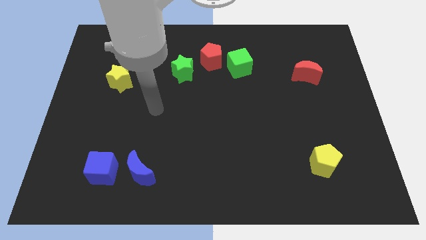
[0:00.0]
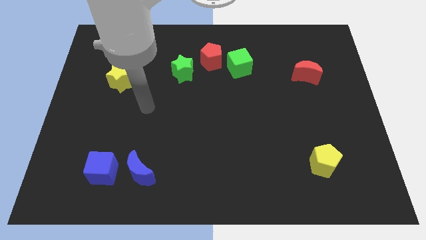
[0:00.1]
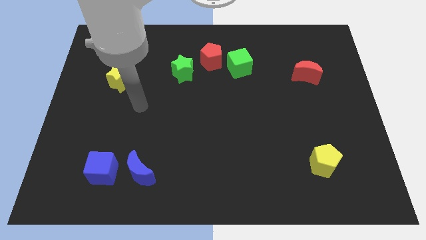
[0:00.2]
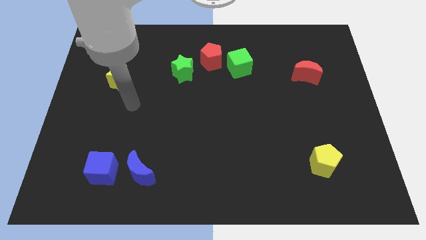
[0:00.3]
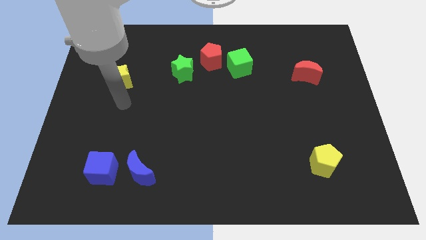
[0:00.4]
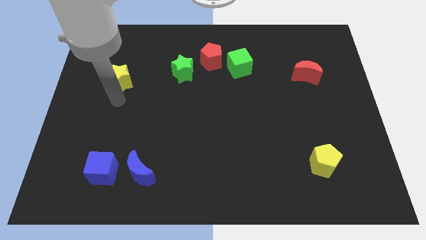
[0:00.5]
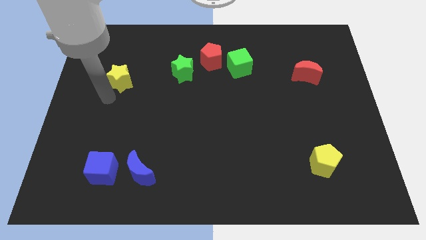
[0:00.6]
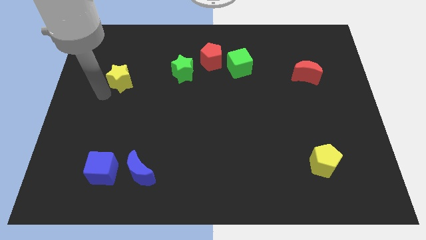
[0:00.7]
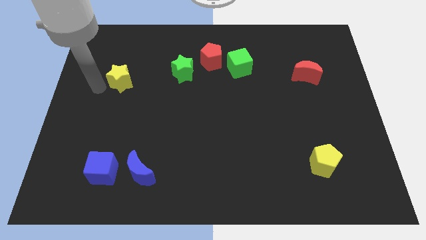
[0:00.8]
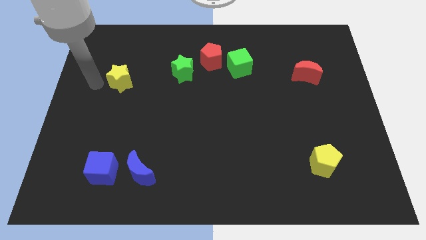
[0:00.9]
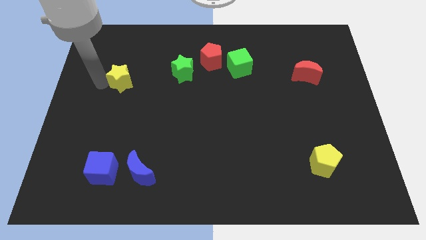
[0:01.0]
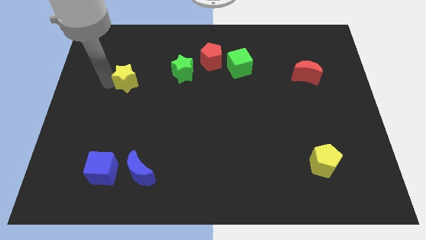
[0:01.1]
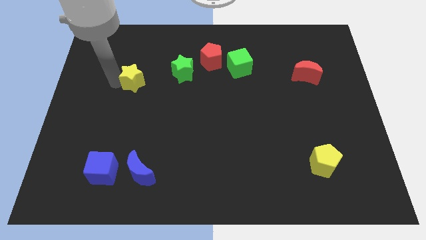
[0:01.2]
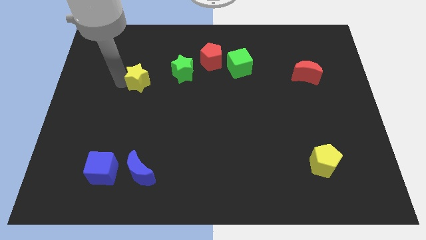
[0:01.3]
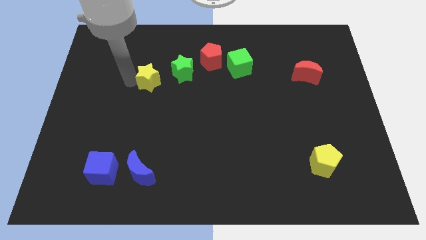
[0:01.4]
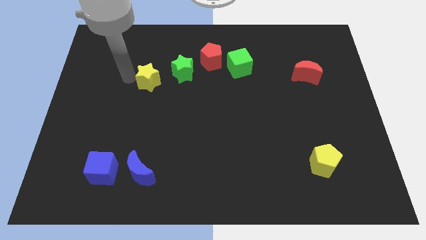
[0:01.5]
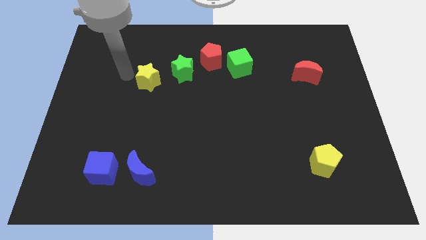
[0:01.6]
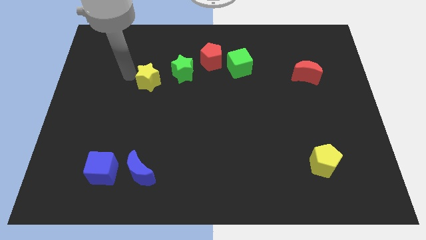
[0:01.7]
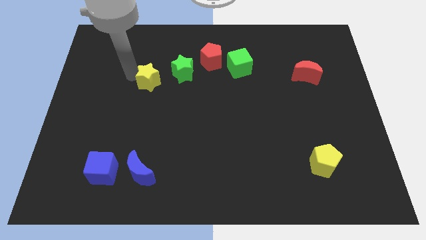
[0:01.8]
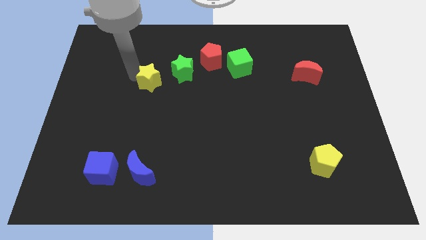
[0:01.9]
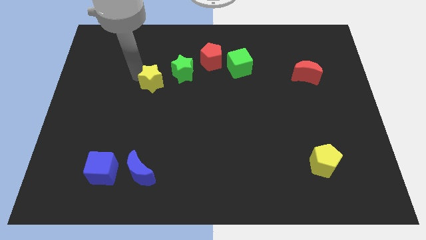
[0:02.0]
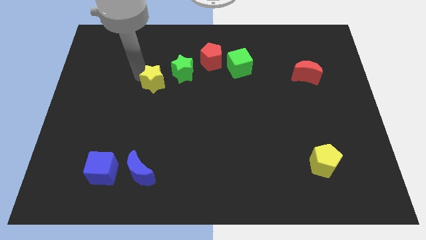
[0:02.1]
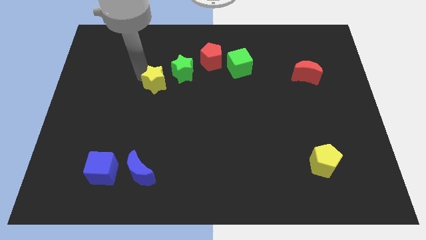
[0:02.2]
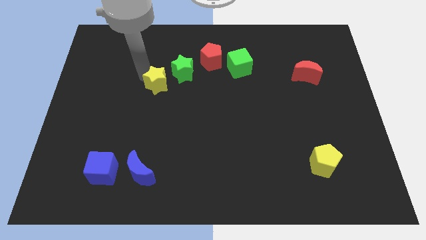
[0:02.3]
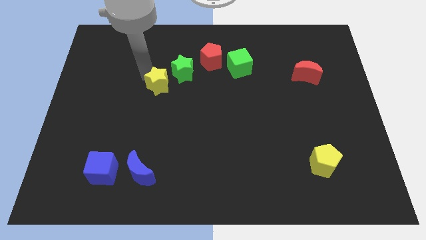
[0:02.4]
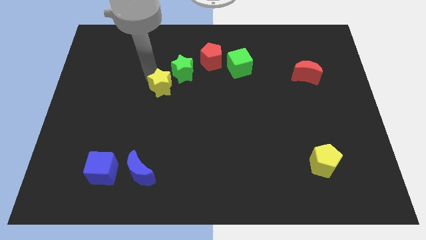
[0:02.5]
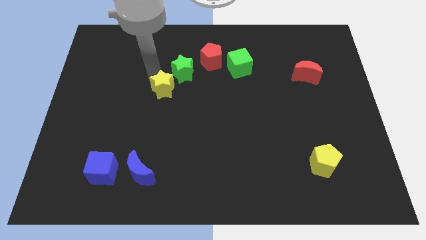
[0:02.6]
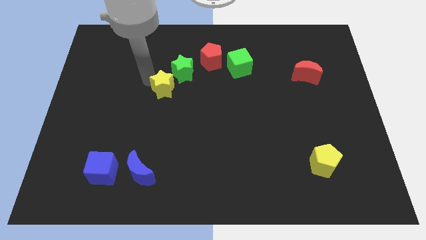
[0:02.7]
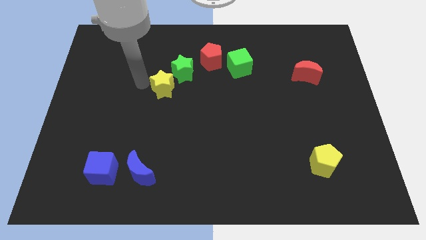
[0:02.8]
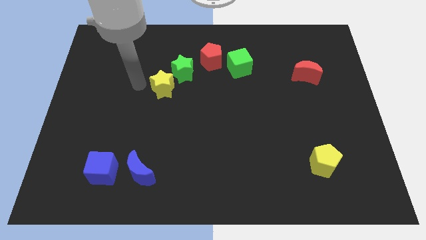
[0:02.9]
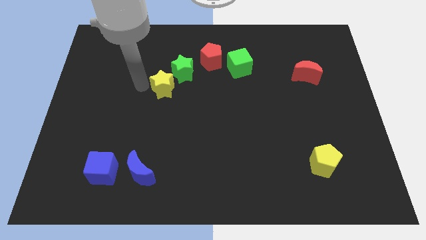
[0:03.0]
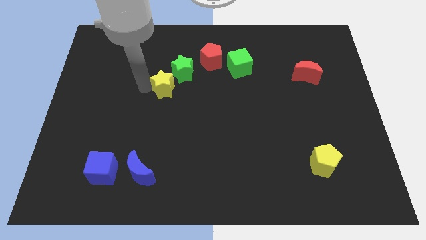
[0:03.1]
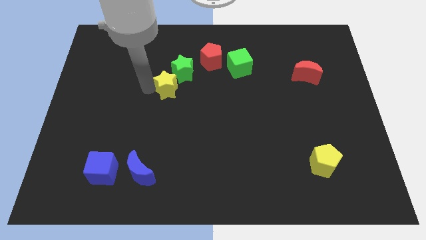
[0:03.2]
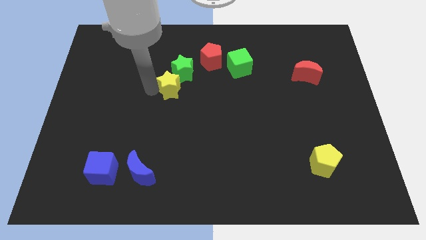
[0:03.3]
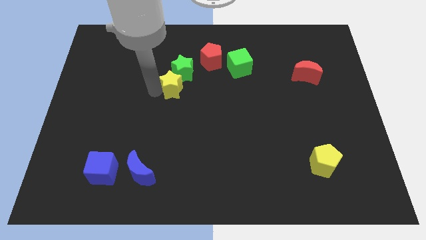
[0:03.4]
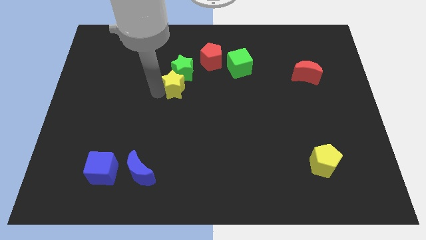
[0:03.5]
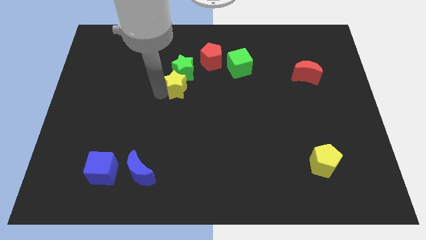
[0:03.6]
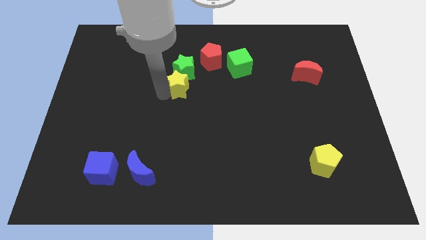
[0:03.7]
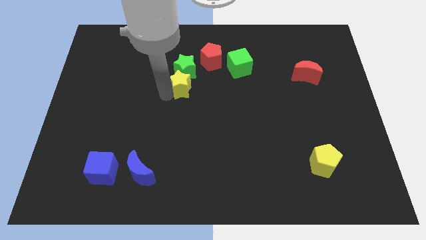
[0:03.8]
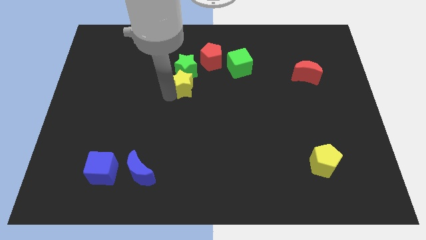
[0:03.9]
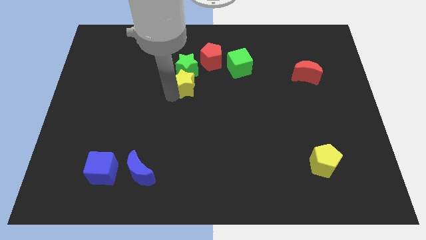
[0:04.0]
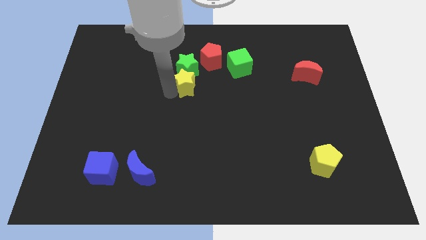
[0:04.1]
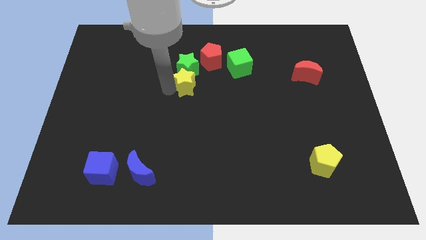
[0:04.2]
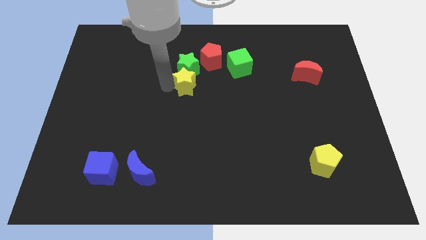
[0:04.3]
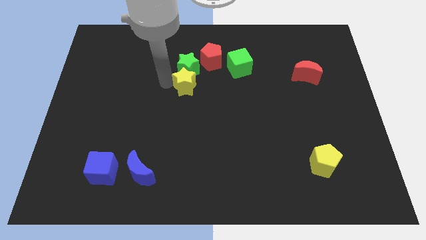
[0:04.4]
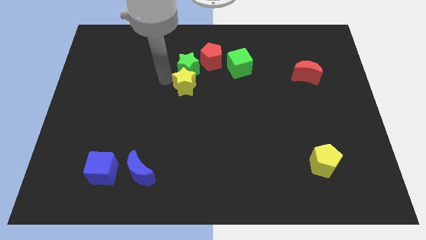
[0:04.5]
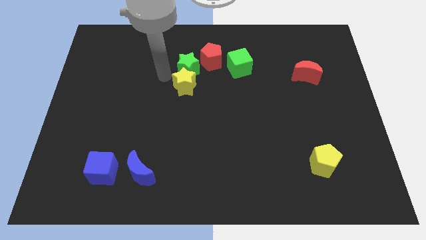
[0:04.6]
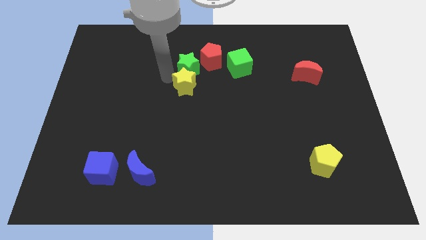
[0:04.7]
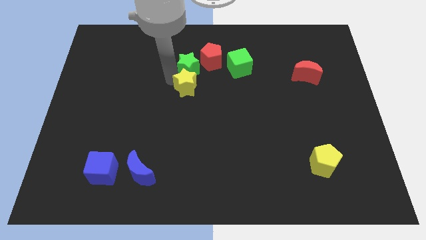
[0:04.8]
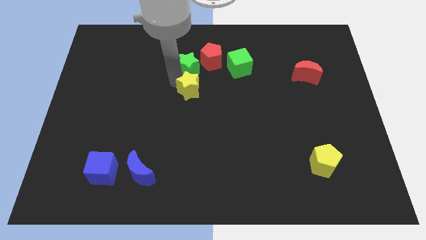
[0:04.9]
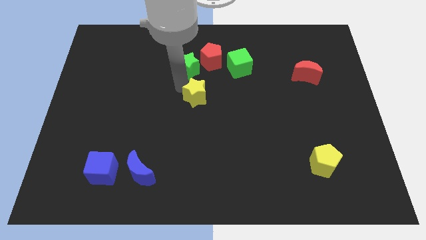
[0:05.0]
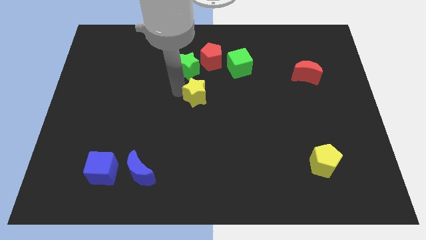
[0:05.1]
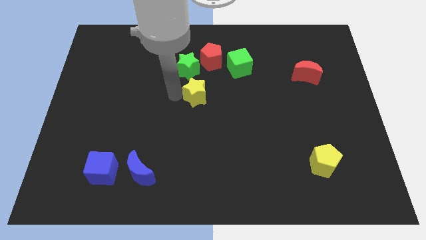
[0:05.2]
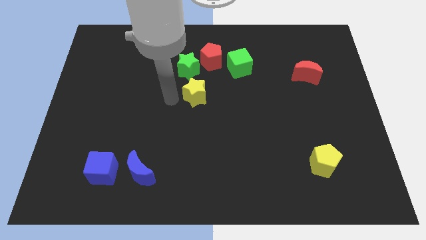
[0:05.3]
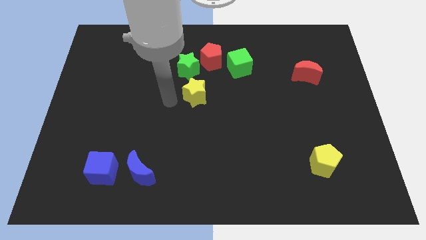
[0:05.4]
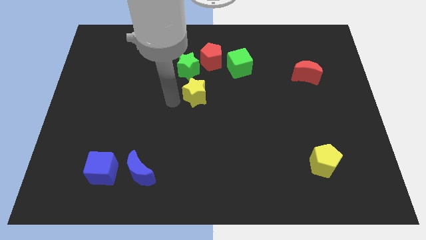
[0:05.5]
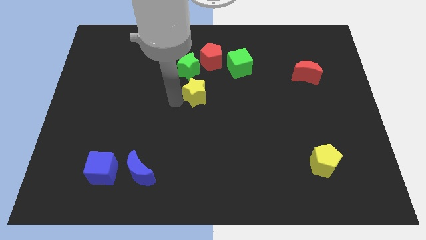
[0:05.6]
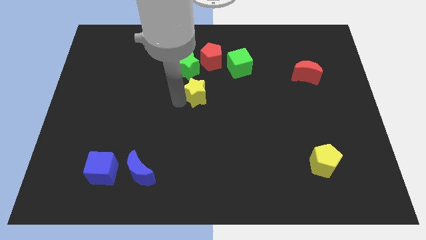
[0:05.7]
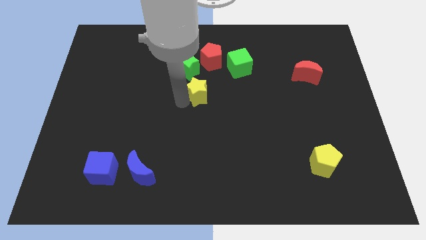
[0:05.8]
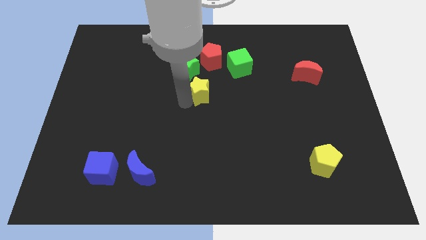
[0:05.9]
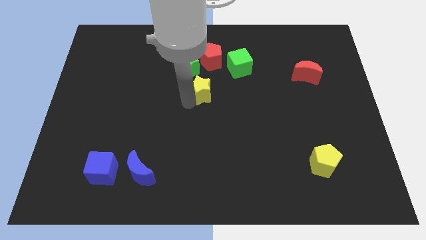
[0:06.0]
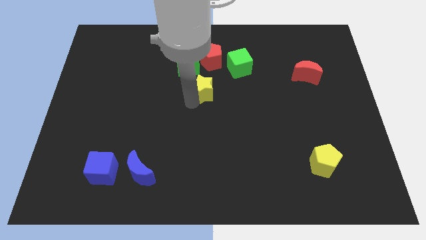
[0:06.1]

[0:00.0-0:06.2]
push the yellow star to the right

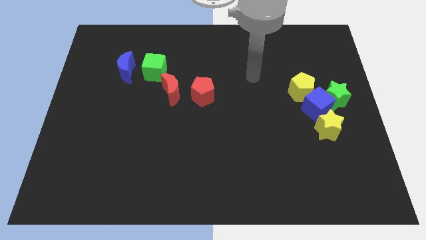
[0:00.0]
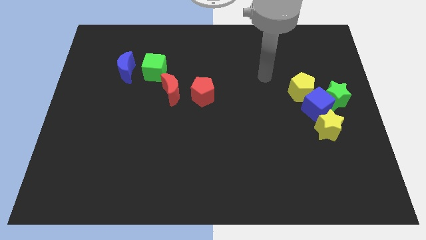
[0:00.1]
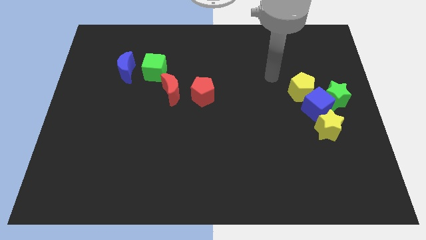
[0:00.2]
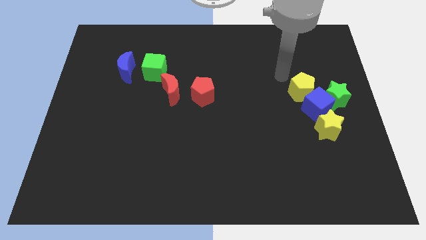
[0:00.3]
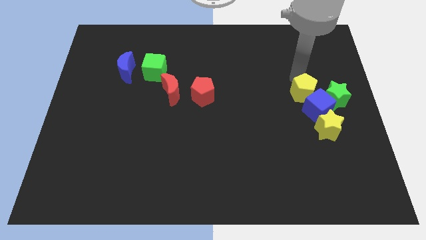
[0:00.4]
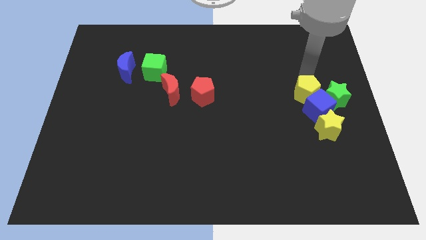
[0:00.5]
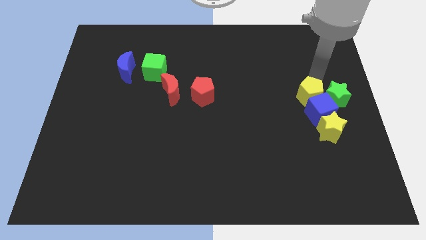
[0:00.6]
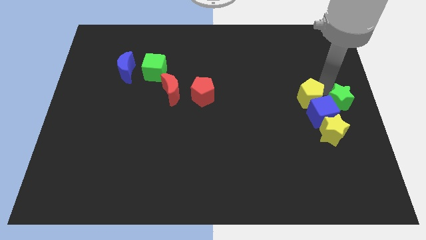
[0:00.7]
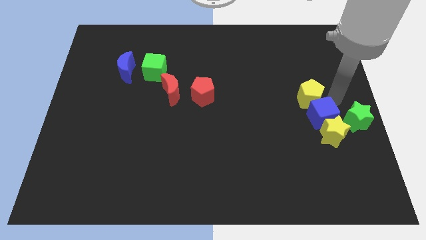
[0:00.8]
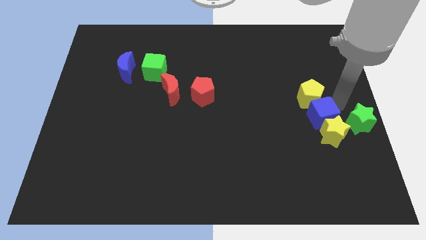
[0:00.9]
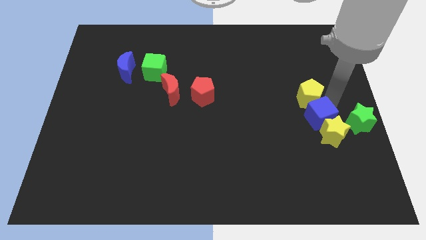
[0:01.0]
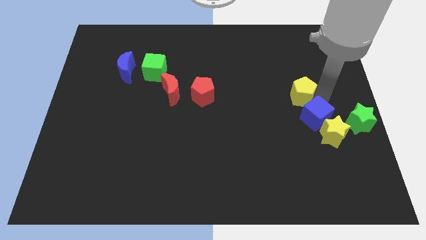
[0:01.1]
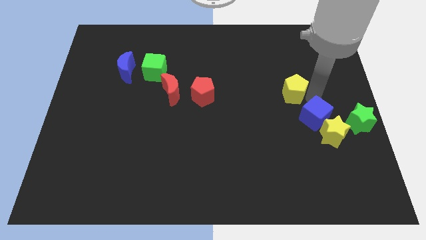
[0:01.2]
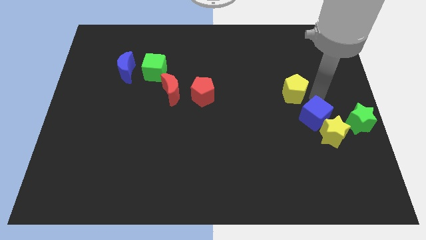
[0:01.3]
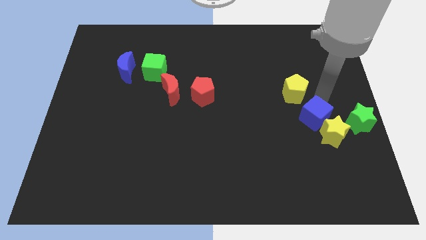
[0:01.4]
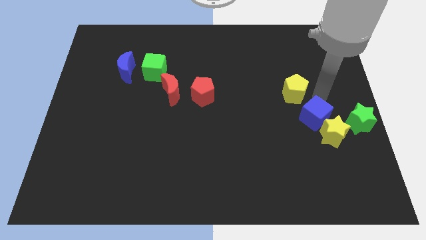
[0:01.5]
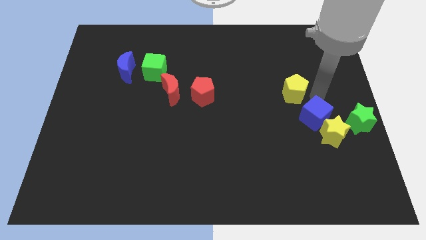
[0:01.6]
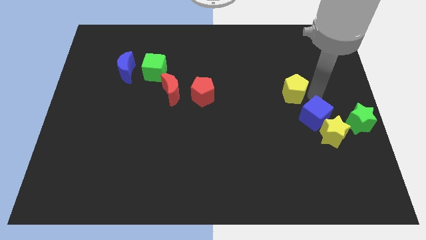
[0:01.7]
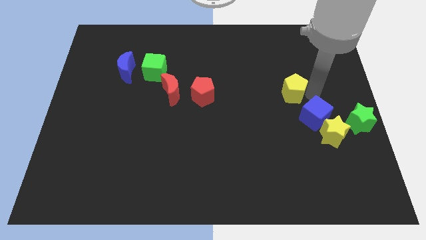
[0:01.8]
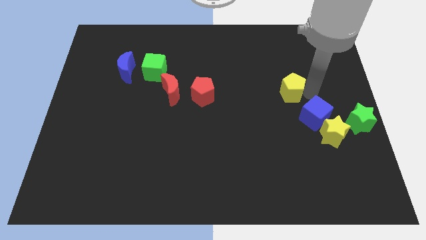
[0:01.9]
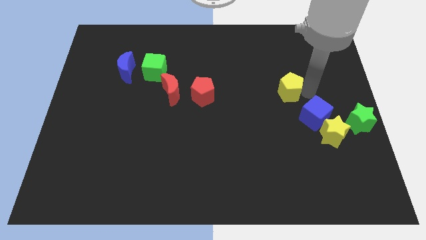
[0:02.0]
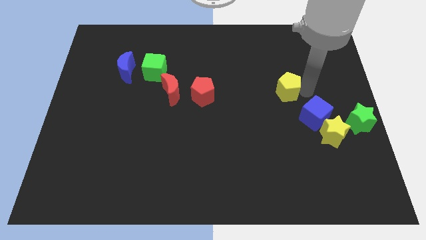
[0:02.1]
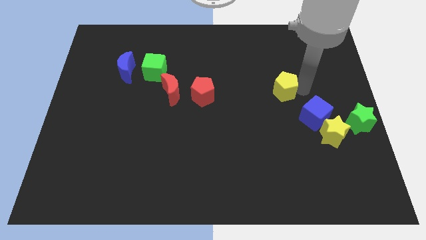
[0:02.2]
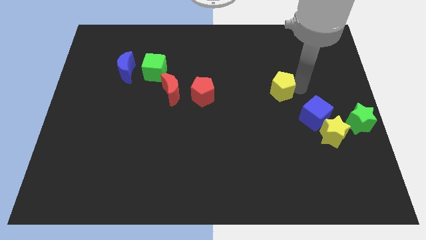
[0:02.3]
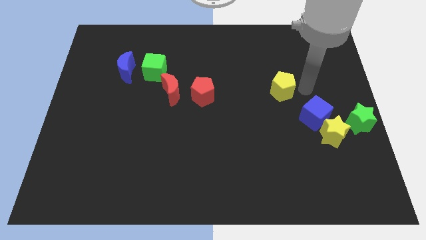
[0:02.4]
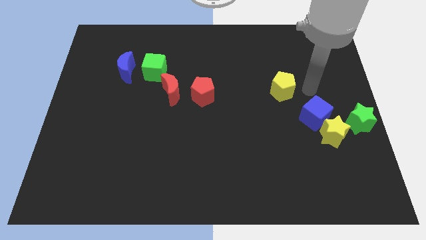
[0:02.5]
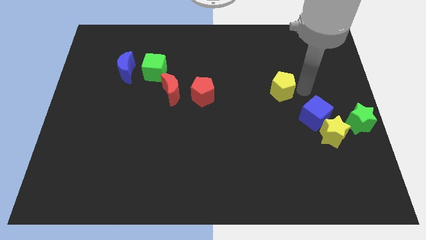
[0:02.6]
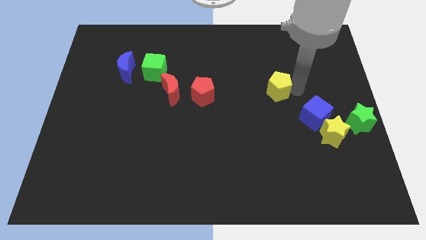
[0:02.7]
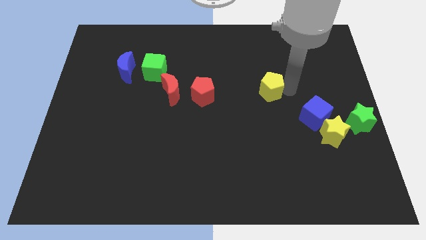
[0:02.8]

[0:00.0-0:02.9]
move the yellow pentagon left a little bit
